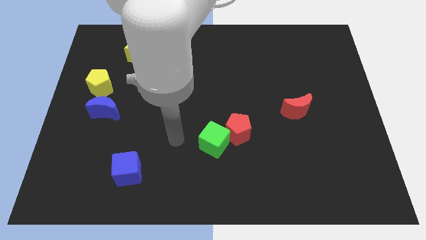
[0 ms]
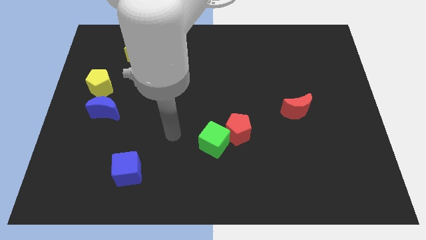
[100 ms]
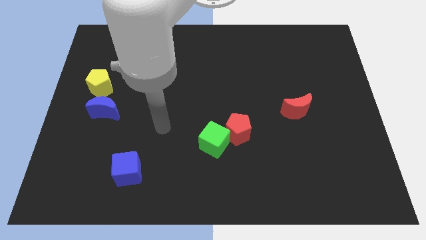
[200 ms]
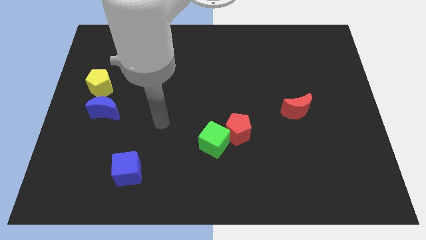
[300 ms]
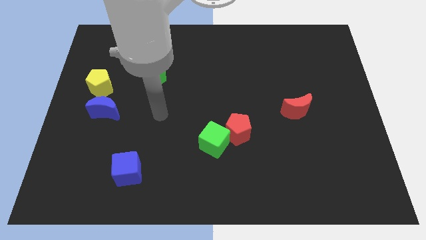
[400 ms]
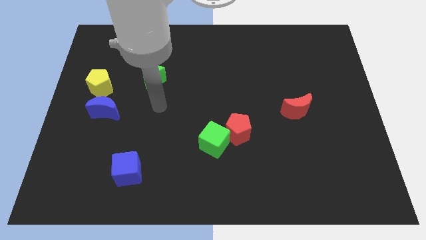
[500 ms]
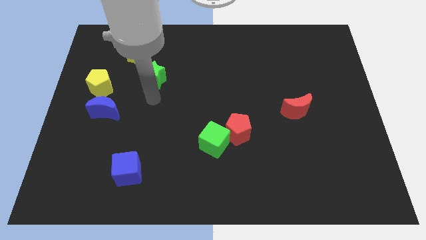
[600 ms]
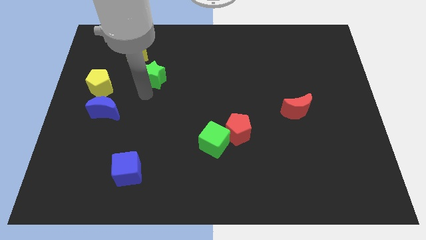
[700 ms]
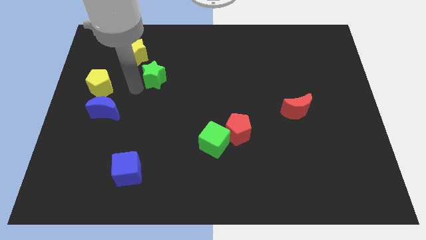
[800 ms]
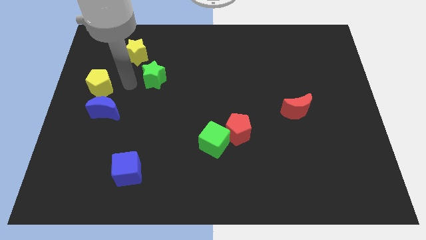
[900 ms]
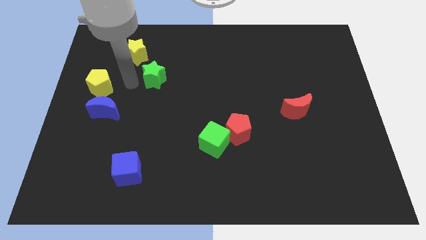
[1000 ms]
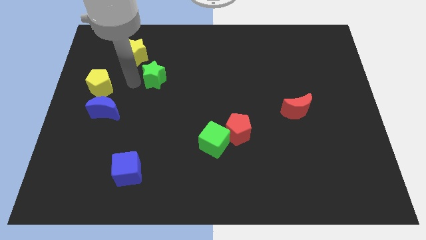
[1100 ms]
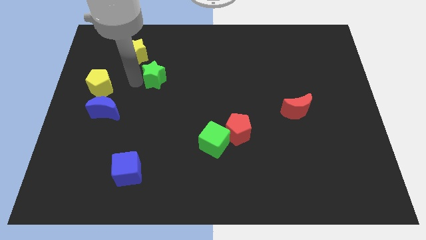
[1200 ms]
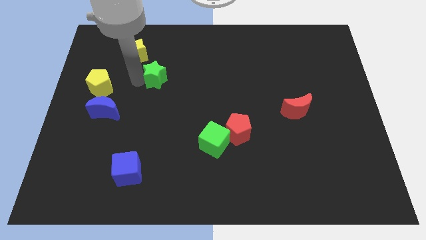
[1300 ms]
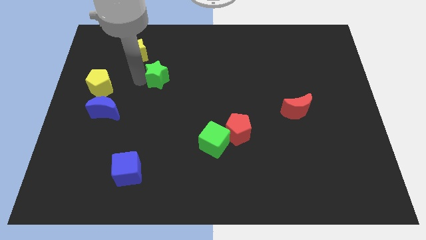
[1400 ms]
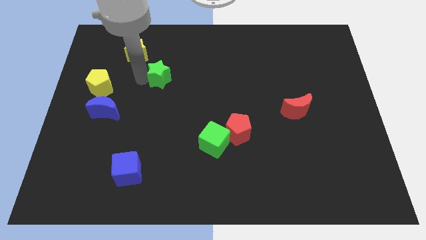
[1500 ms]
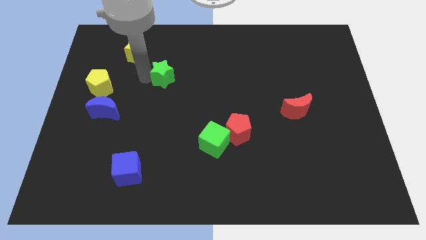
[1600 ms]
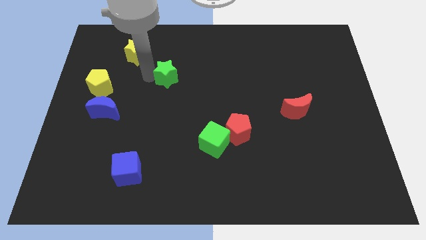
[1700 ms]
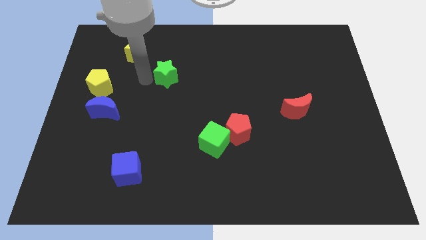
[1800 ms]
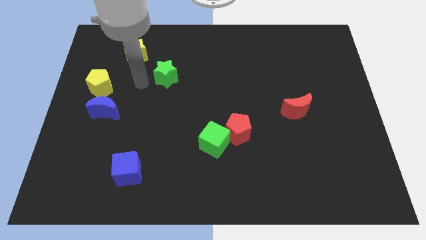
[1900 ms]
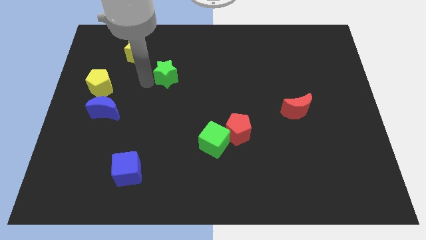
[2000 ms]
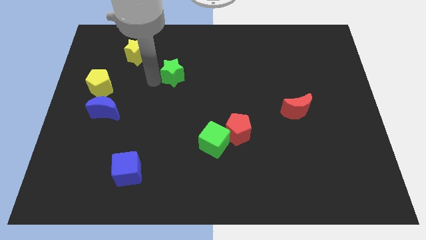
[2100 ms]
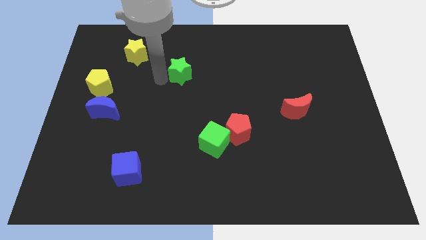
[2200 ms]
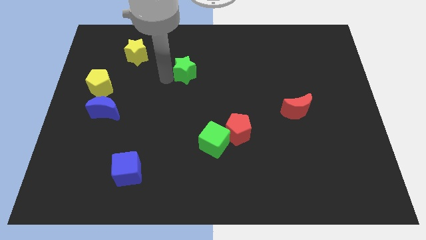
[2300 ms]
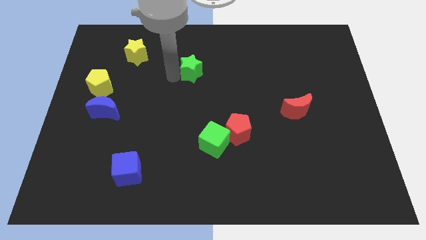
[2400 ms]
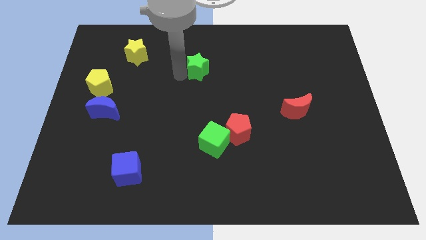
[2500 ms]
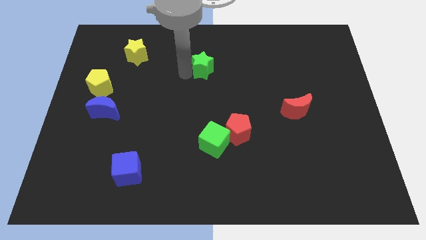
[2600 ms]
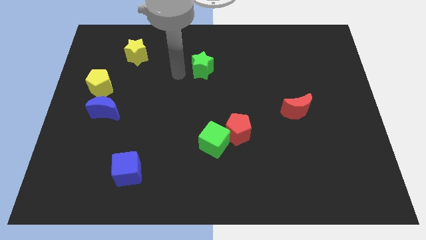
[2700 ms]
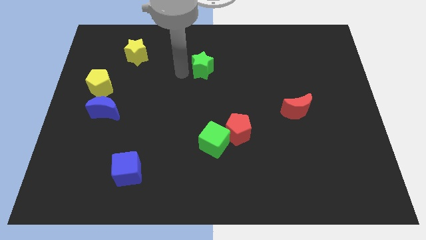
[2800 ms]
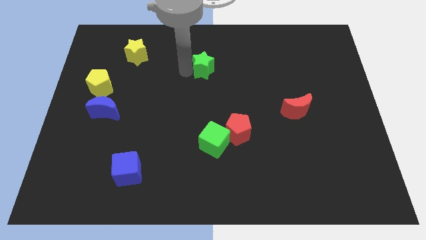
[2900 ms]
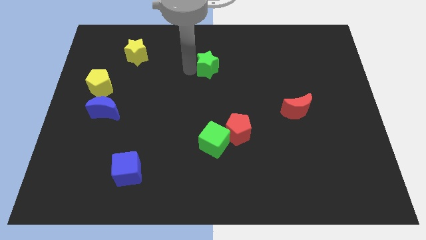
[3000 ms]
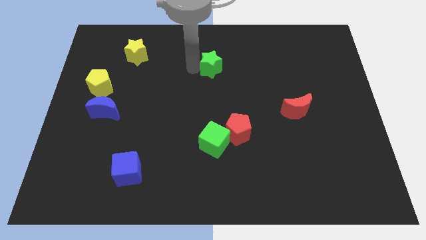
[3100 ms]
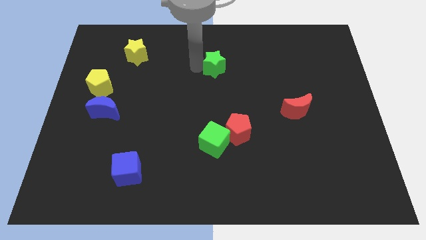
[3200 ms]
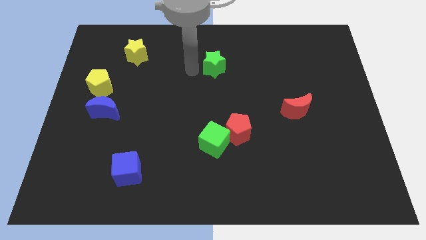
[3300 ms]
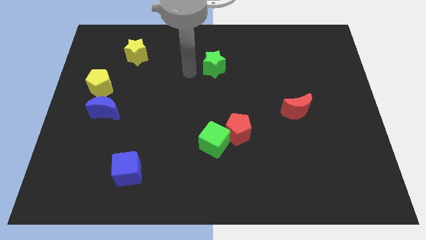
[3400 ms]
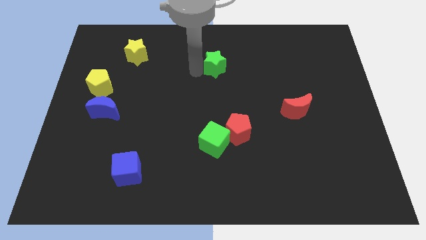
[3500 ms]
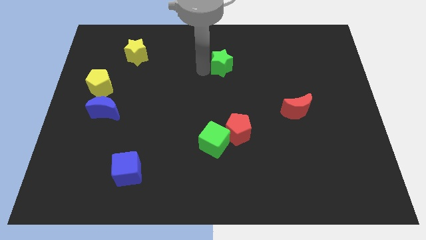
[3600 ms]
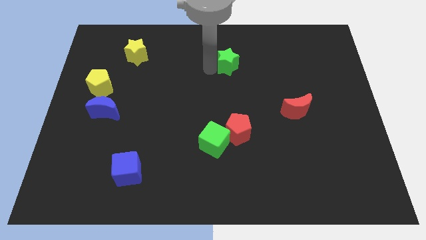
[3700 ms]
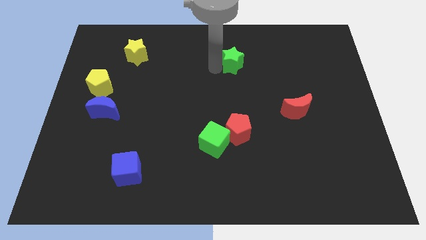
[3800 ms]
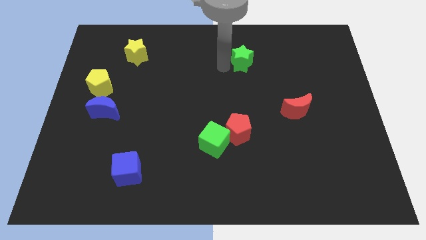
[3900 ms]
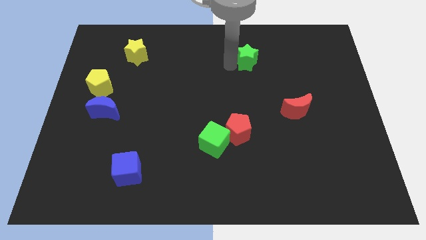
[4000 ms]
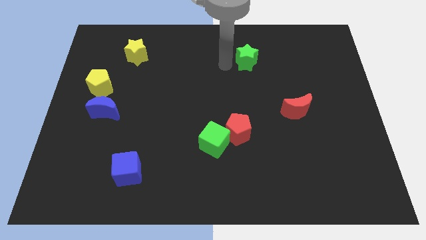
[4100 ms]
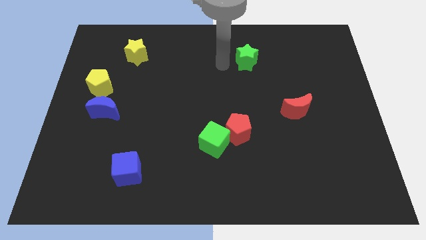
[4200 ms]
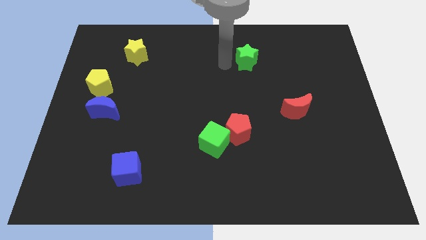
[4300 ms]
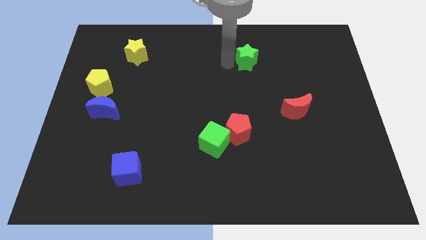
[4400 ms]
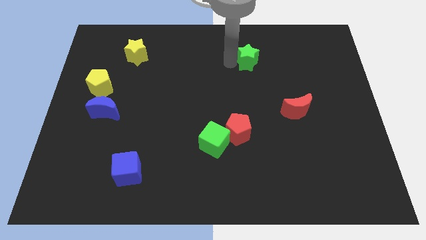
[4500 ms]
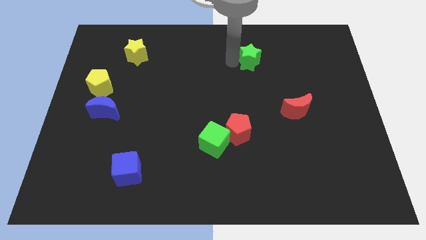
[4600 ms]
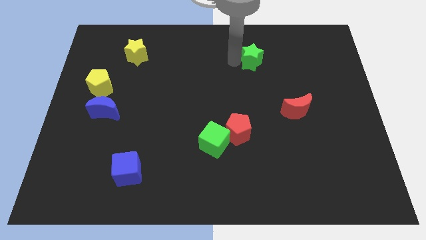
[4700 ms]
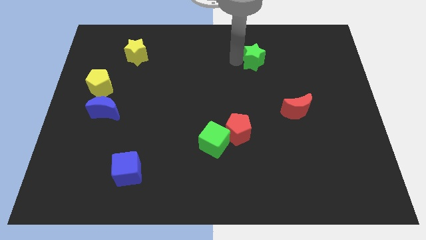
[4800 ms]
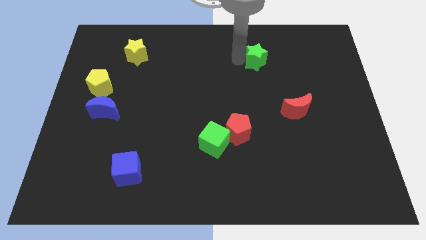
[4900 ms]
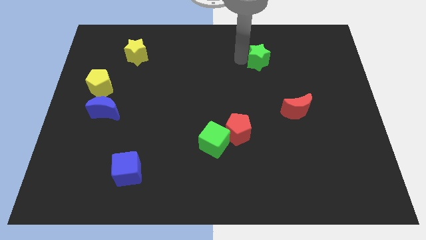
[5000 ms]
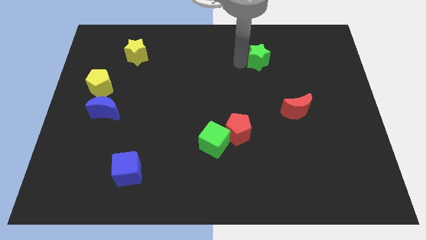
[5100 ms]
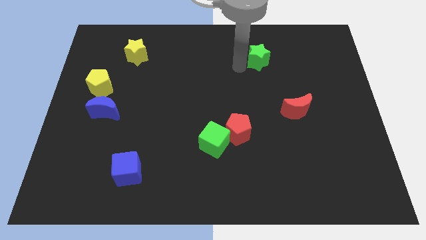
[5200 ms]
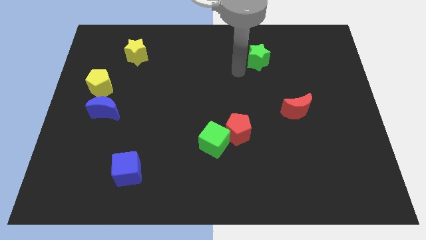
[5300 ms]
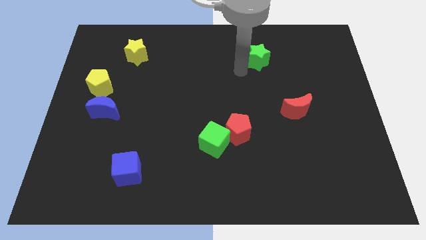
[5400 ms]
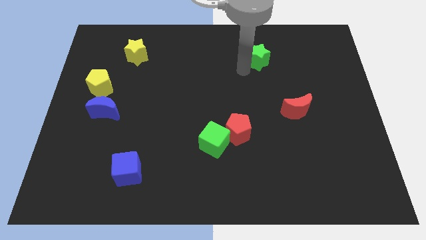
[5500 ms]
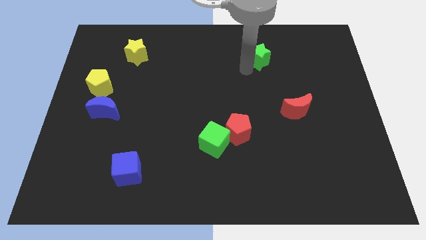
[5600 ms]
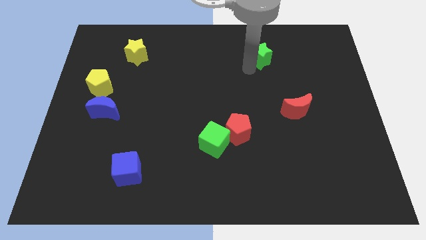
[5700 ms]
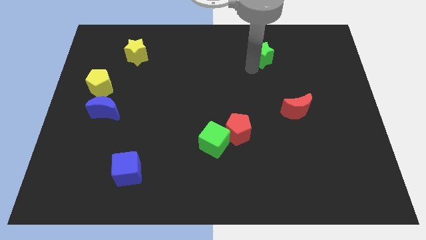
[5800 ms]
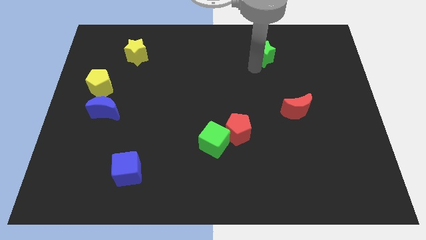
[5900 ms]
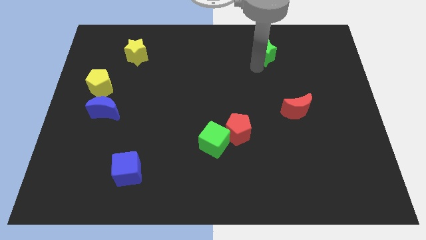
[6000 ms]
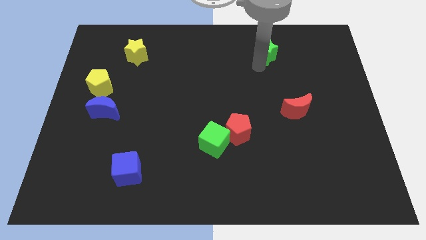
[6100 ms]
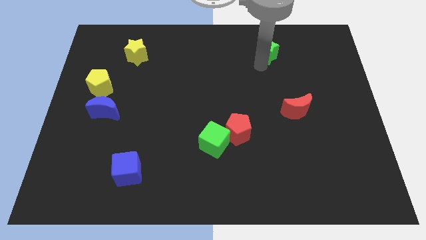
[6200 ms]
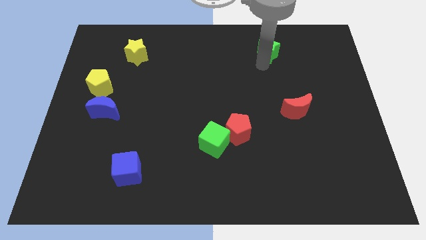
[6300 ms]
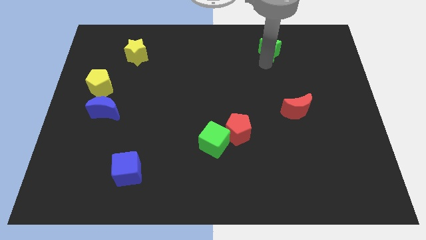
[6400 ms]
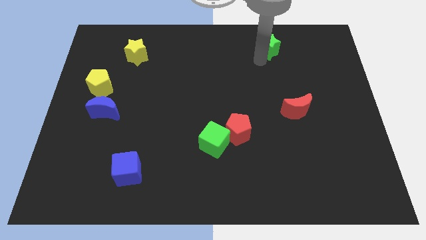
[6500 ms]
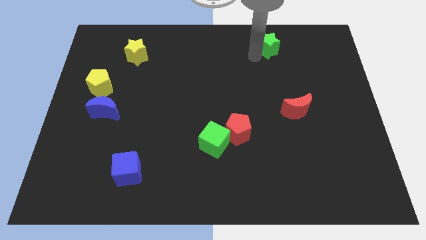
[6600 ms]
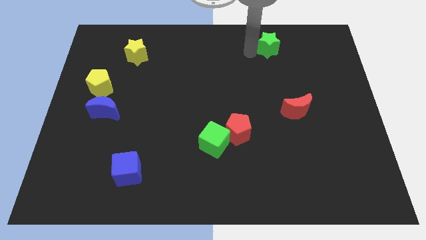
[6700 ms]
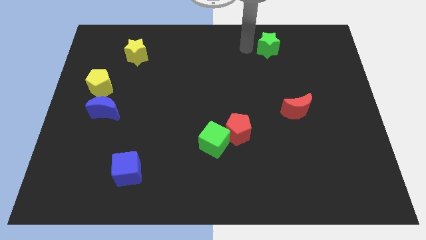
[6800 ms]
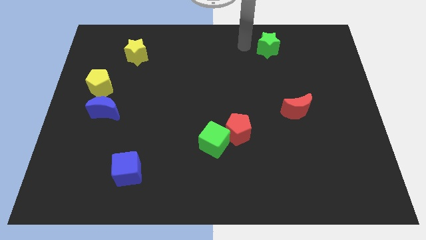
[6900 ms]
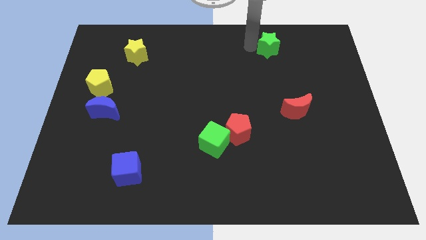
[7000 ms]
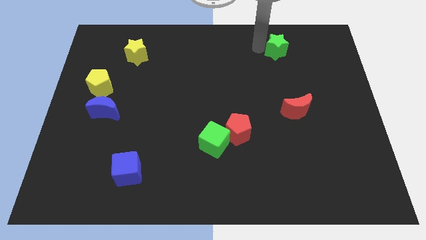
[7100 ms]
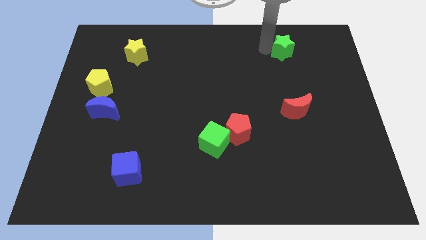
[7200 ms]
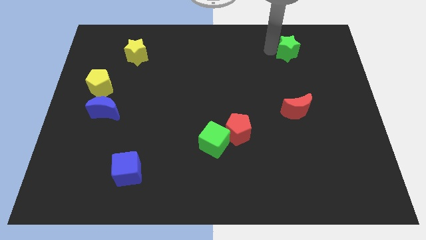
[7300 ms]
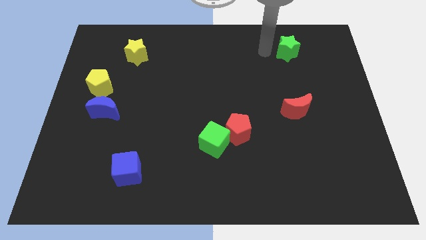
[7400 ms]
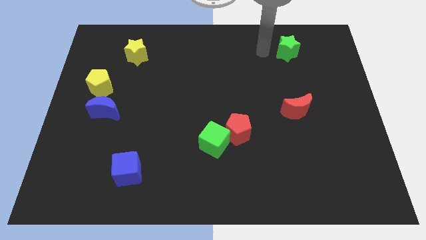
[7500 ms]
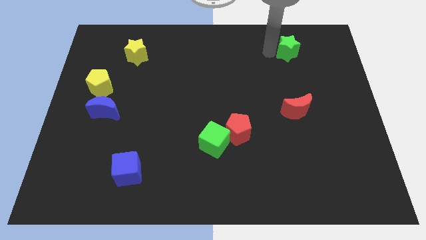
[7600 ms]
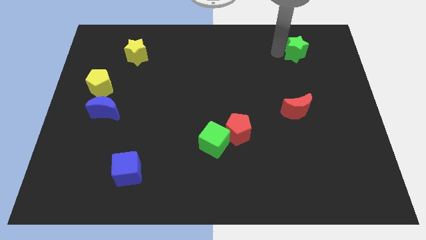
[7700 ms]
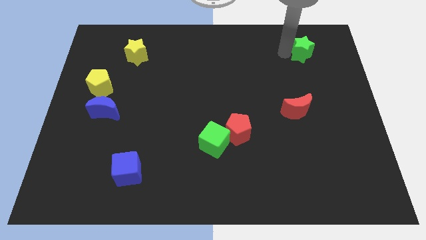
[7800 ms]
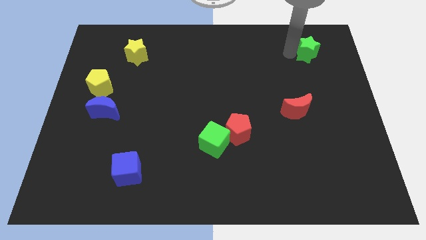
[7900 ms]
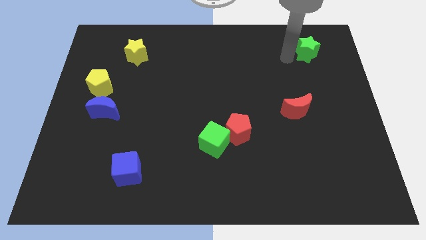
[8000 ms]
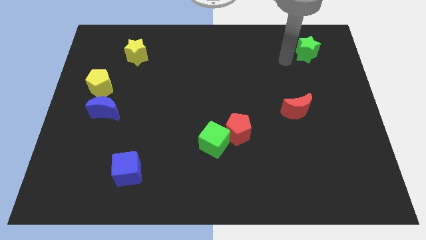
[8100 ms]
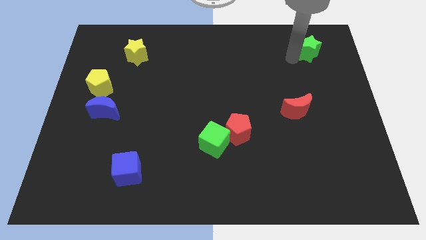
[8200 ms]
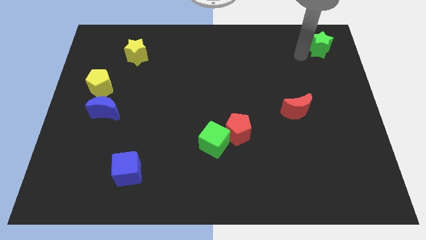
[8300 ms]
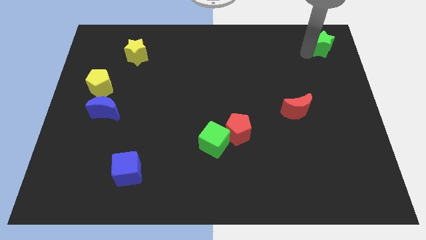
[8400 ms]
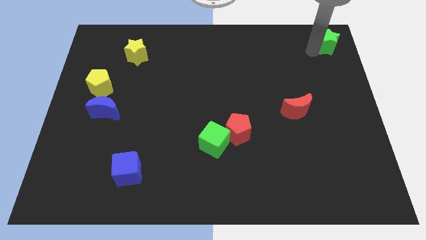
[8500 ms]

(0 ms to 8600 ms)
move the green star to the top right
